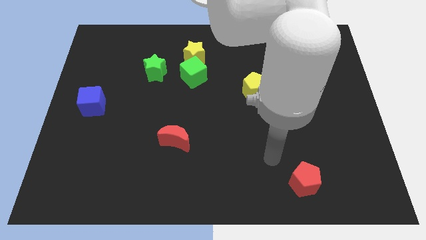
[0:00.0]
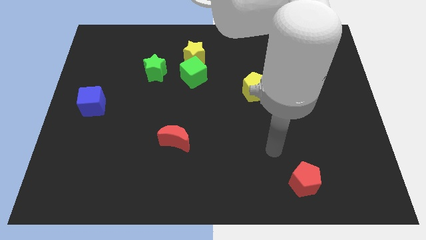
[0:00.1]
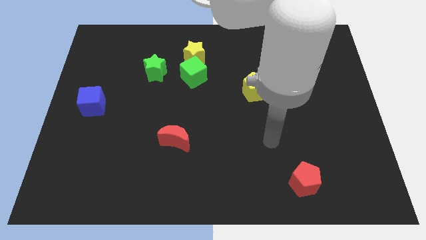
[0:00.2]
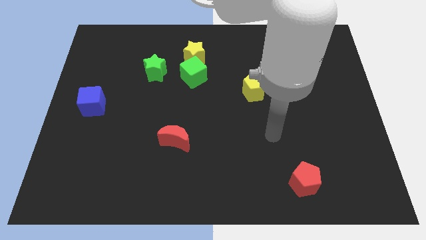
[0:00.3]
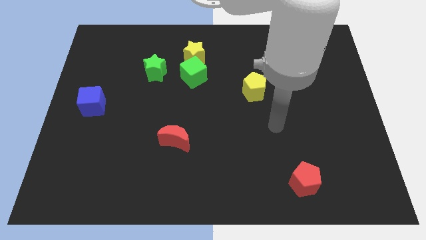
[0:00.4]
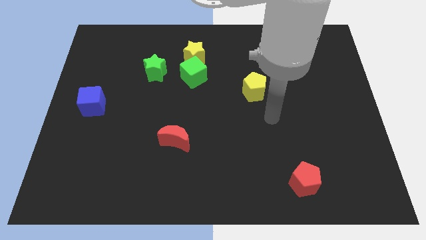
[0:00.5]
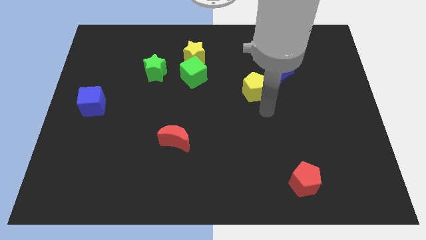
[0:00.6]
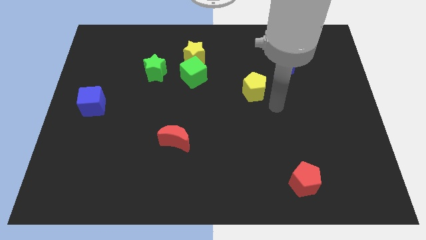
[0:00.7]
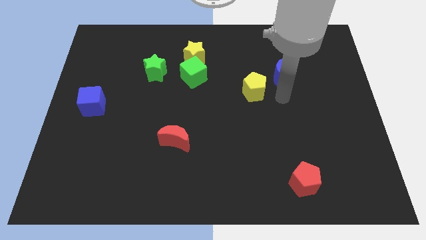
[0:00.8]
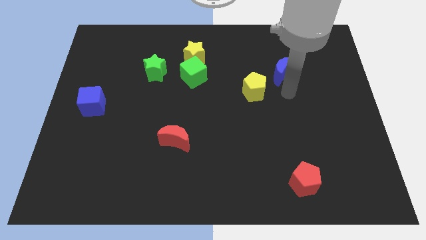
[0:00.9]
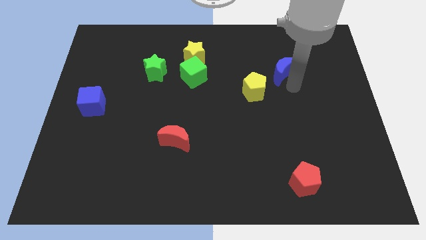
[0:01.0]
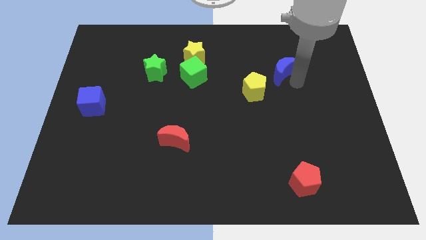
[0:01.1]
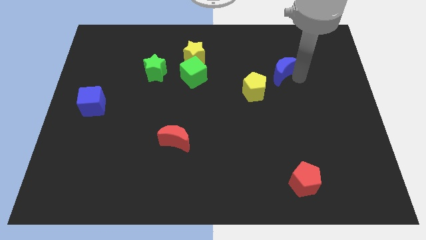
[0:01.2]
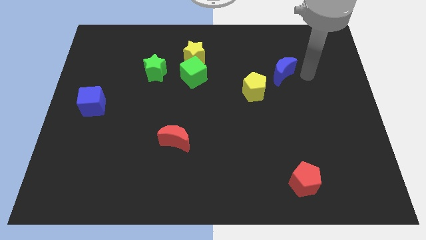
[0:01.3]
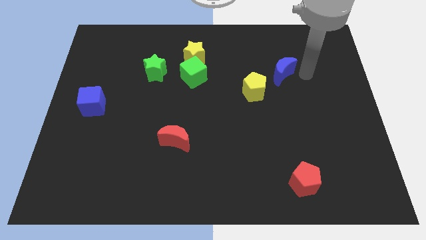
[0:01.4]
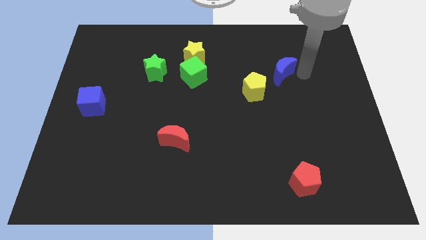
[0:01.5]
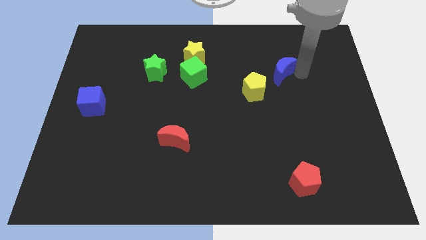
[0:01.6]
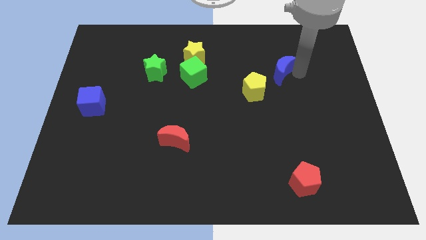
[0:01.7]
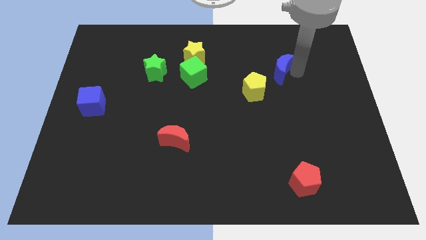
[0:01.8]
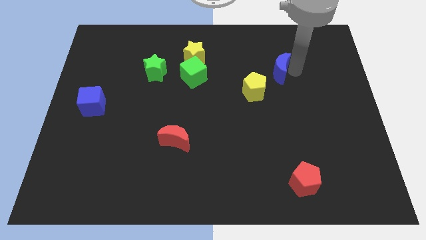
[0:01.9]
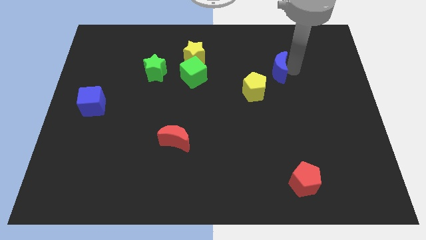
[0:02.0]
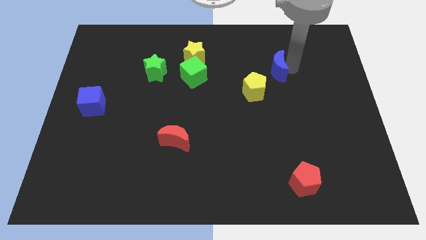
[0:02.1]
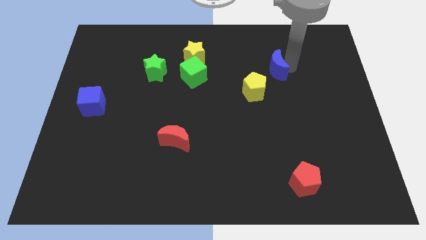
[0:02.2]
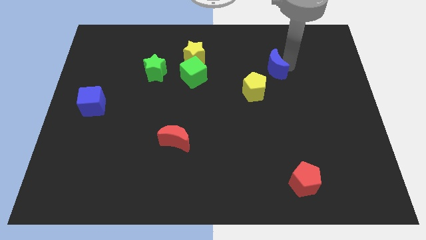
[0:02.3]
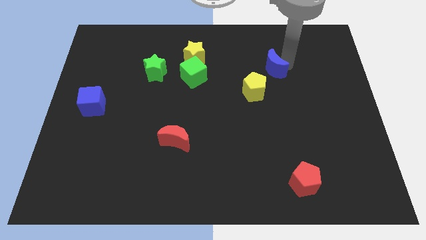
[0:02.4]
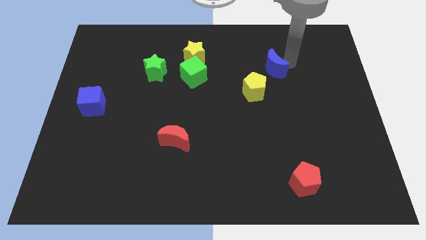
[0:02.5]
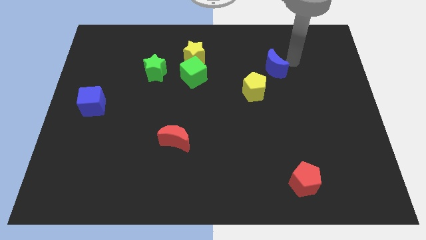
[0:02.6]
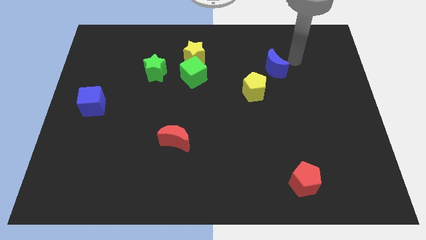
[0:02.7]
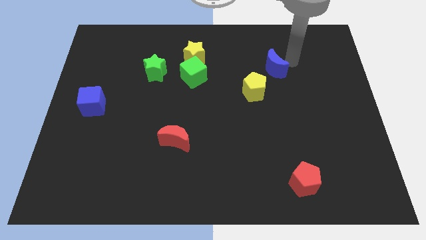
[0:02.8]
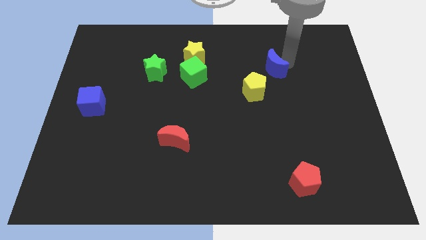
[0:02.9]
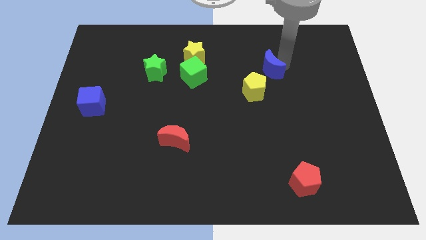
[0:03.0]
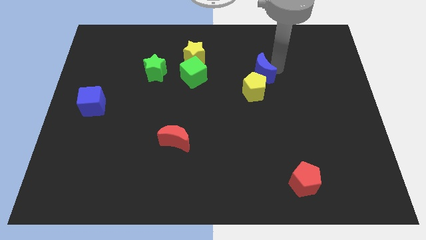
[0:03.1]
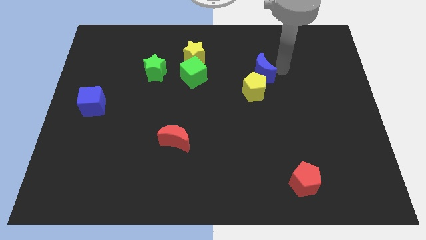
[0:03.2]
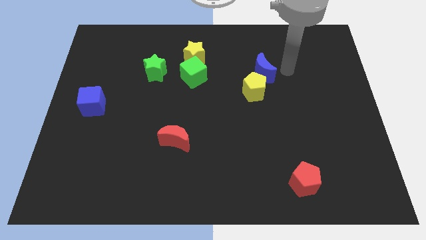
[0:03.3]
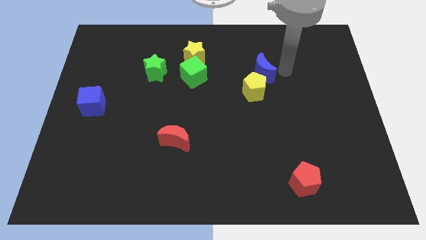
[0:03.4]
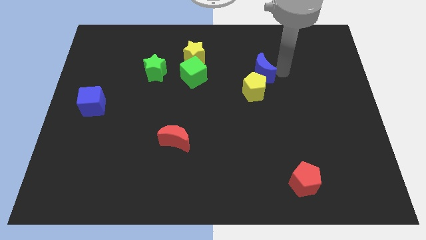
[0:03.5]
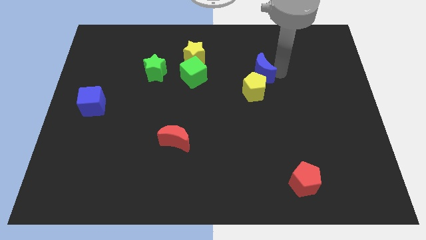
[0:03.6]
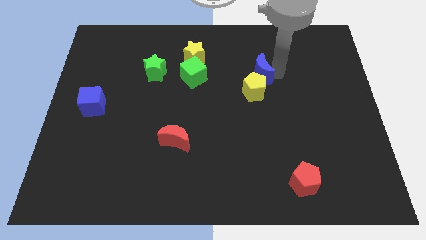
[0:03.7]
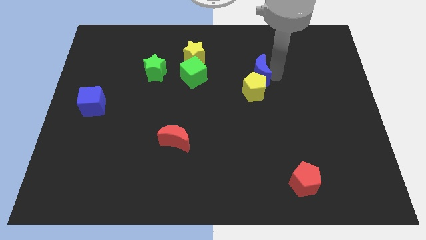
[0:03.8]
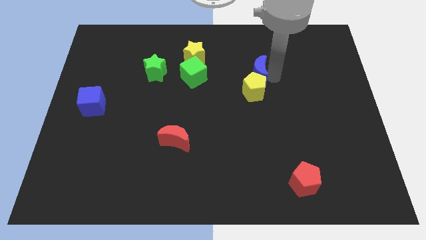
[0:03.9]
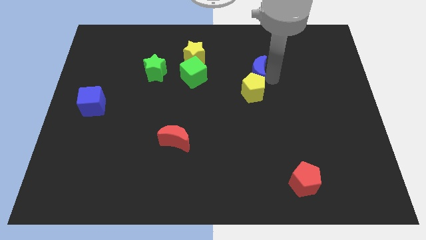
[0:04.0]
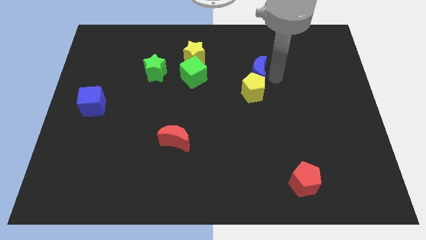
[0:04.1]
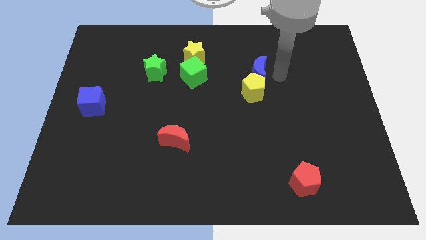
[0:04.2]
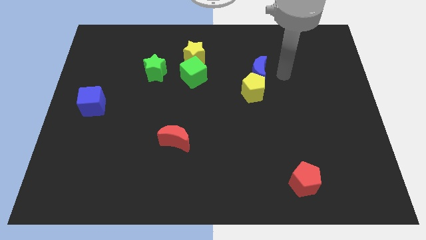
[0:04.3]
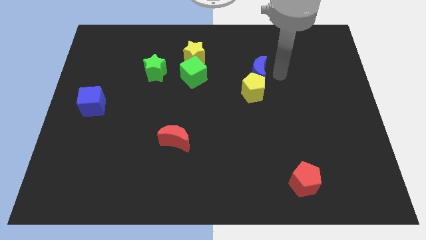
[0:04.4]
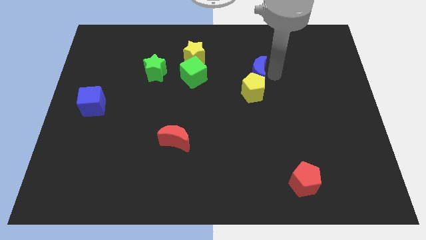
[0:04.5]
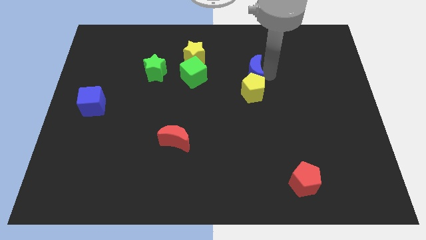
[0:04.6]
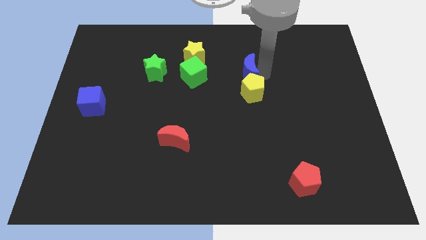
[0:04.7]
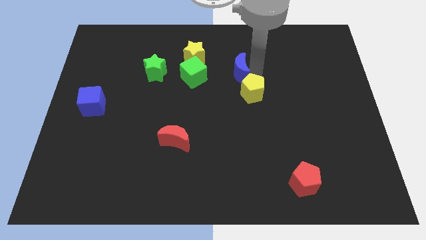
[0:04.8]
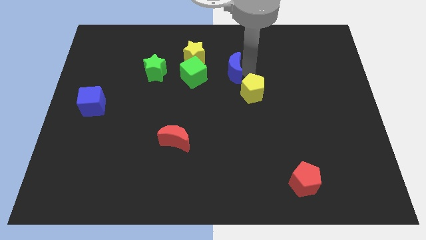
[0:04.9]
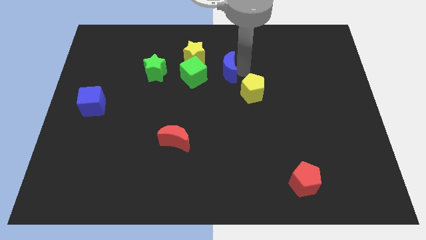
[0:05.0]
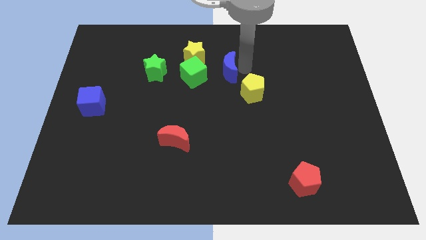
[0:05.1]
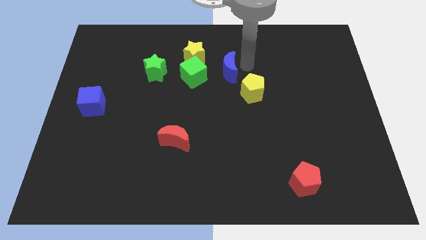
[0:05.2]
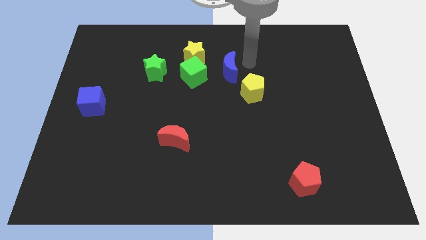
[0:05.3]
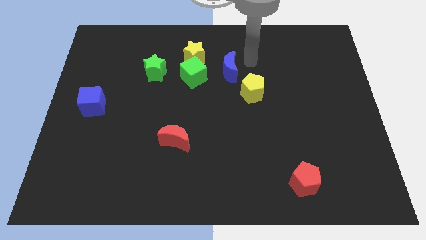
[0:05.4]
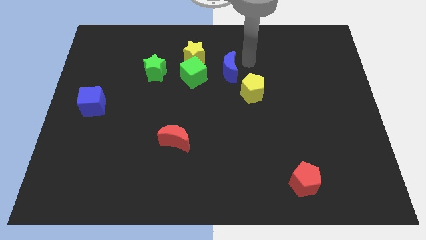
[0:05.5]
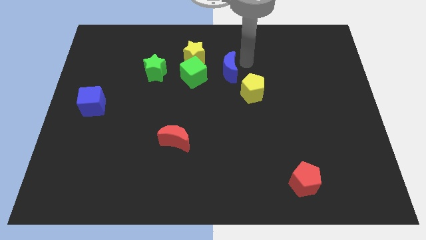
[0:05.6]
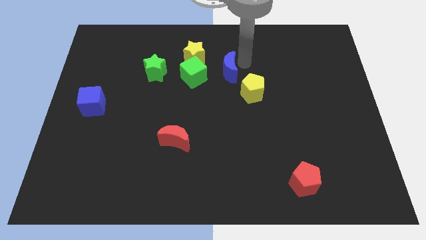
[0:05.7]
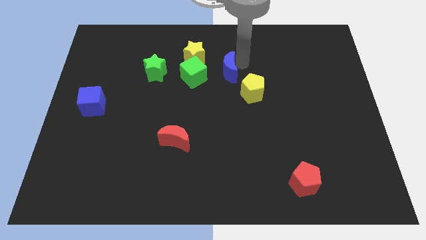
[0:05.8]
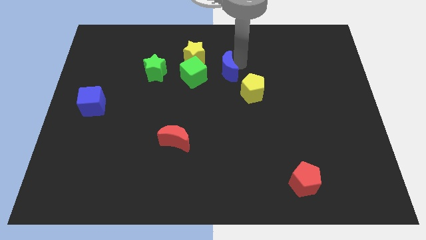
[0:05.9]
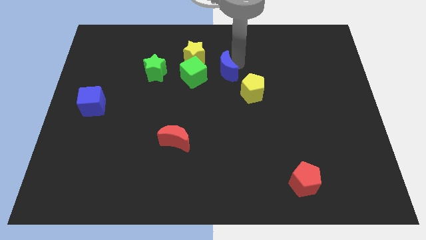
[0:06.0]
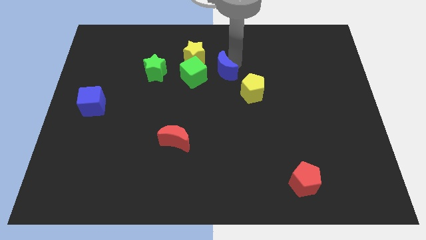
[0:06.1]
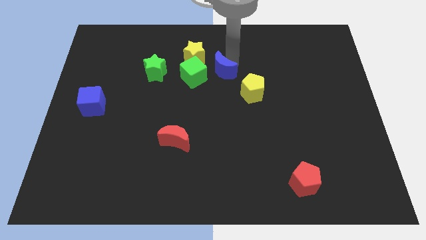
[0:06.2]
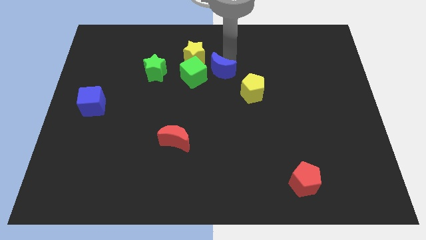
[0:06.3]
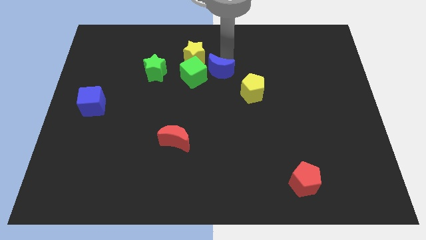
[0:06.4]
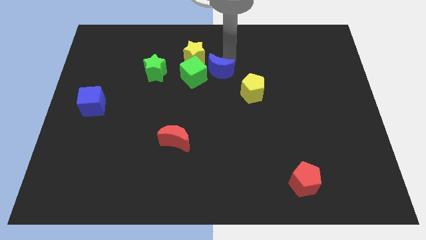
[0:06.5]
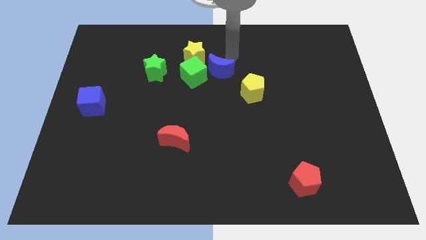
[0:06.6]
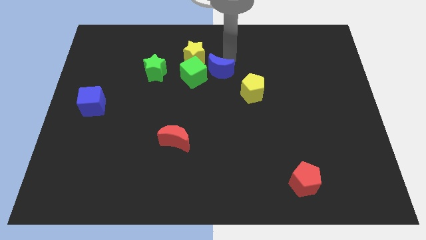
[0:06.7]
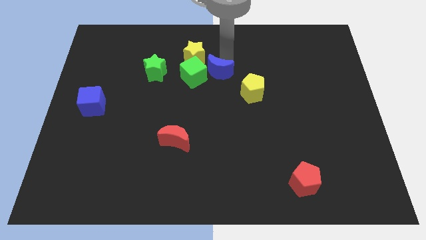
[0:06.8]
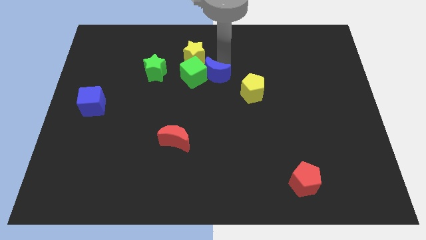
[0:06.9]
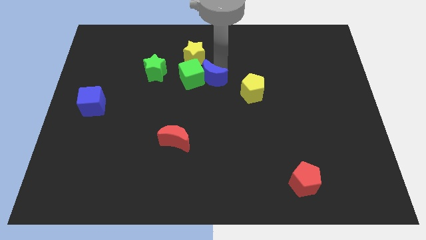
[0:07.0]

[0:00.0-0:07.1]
put the blue moon to the bottom side of the yellow star

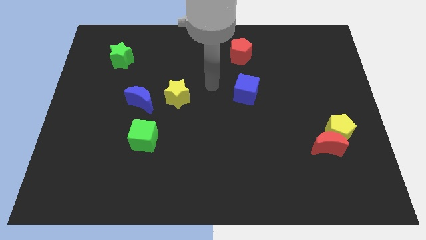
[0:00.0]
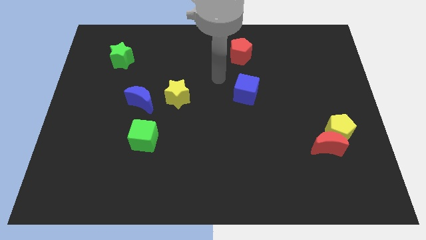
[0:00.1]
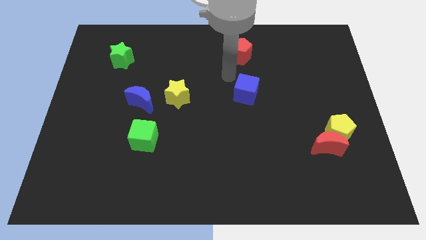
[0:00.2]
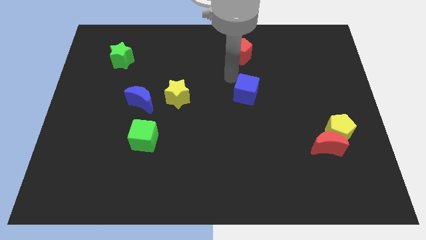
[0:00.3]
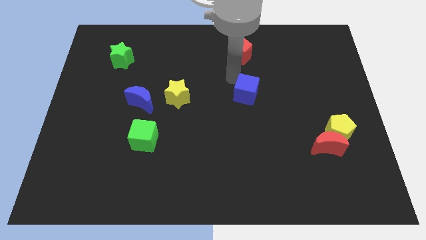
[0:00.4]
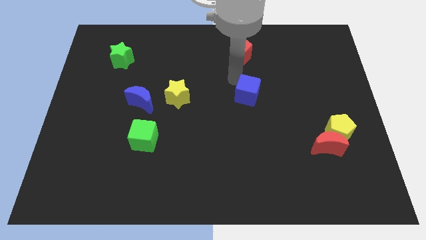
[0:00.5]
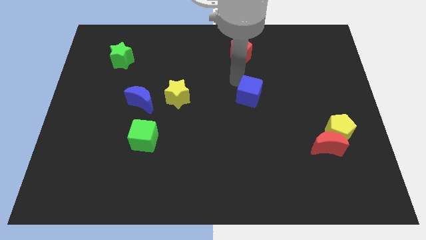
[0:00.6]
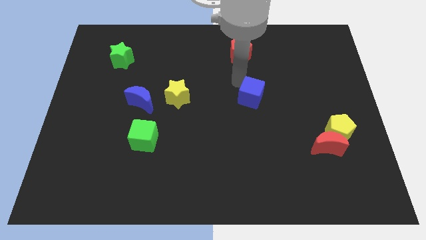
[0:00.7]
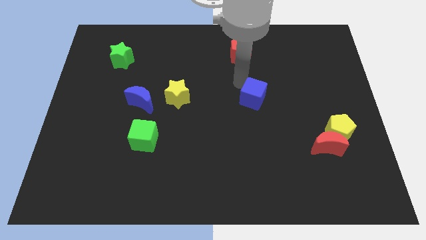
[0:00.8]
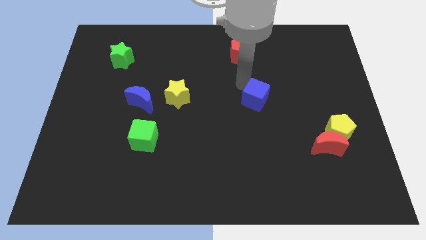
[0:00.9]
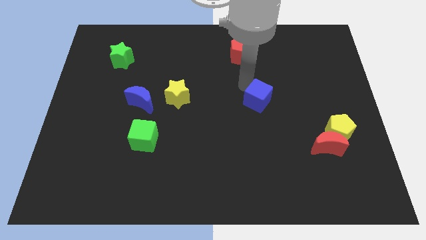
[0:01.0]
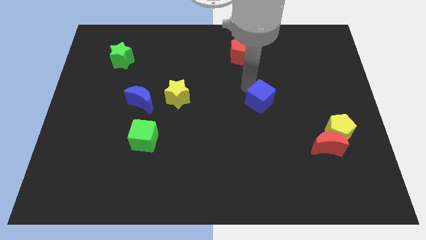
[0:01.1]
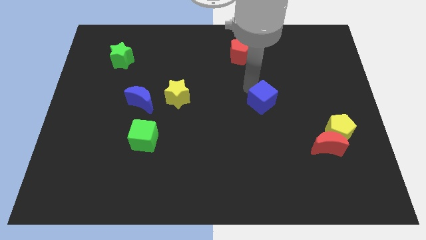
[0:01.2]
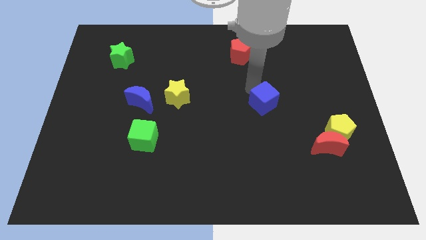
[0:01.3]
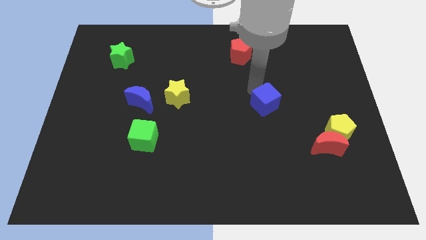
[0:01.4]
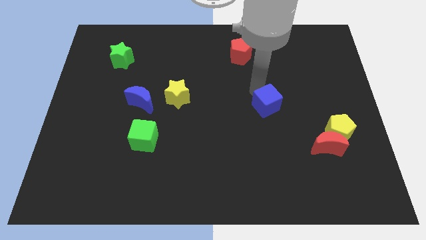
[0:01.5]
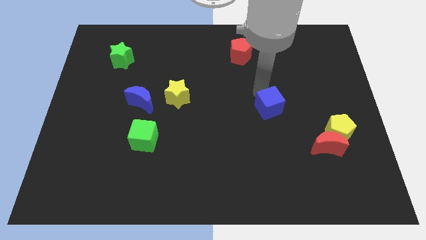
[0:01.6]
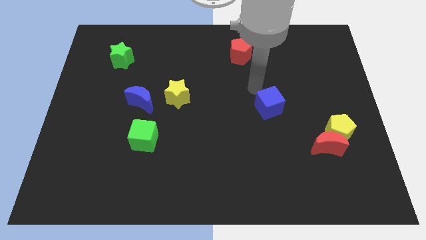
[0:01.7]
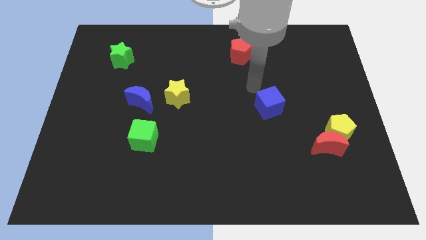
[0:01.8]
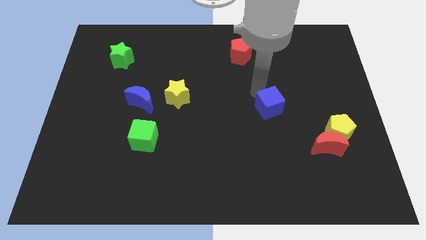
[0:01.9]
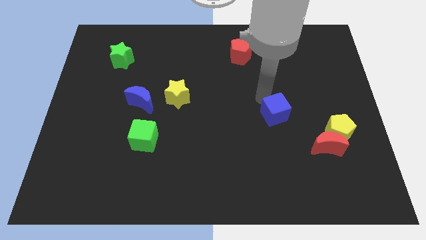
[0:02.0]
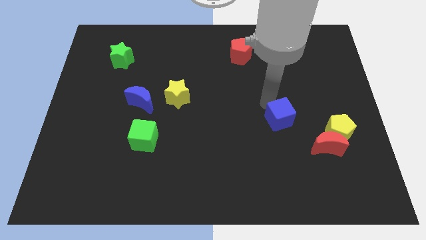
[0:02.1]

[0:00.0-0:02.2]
slide the blue cube just left of the yellow pentagon
